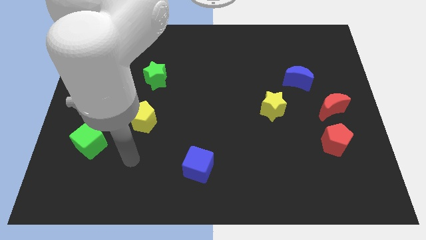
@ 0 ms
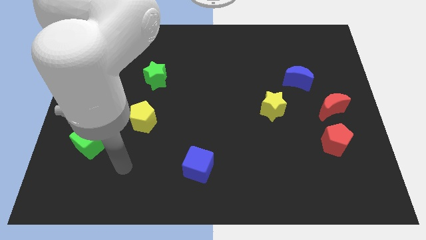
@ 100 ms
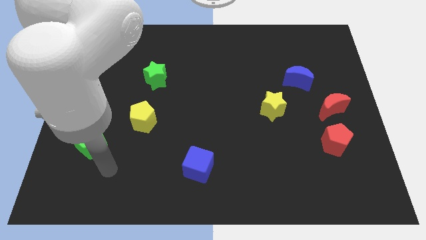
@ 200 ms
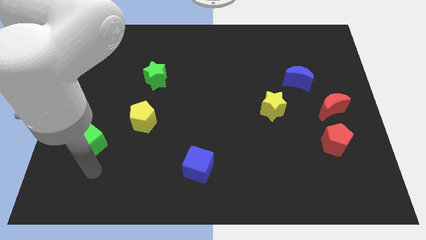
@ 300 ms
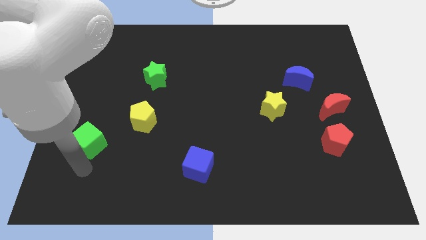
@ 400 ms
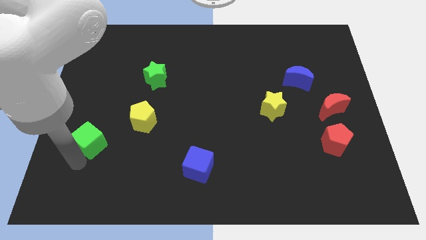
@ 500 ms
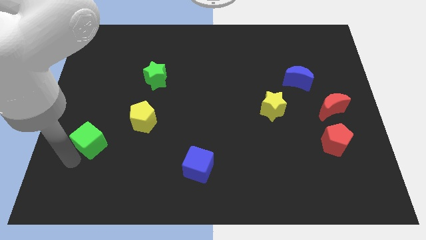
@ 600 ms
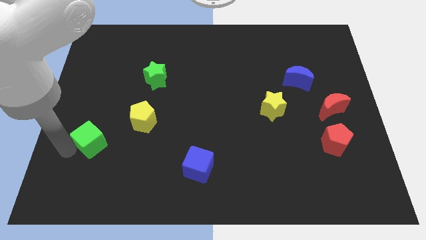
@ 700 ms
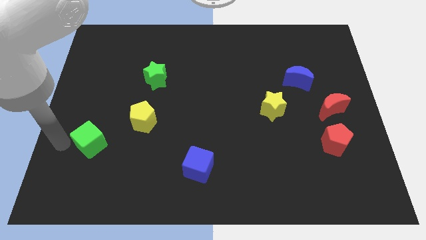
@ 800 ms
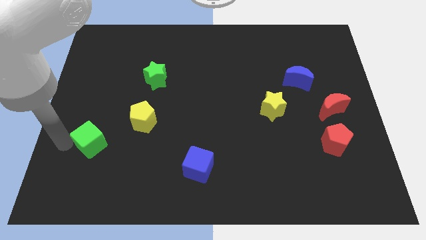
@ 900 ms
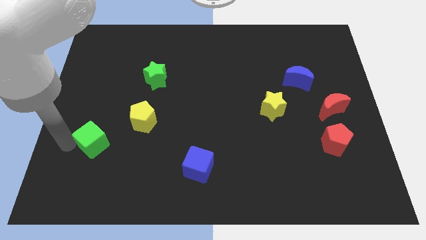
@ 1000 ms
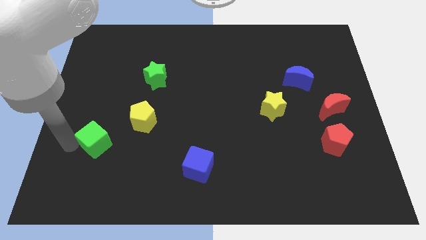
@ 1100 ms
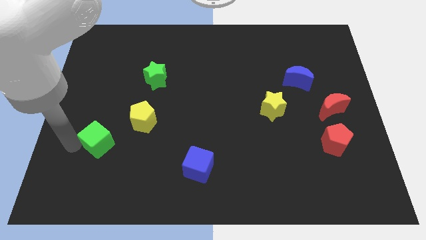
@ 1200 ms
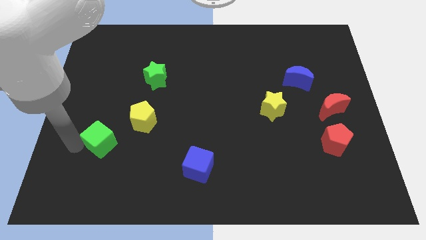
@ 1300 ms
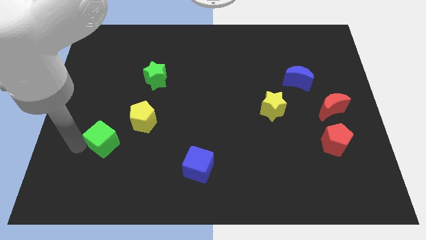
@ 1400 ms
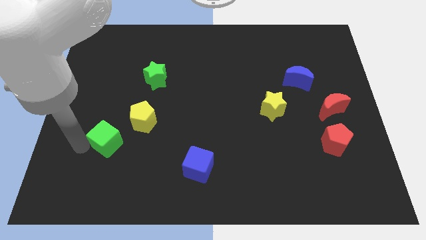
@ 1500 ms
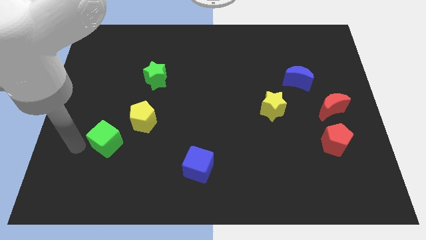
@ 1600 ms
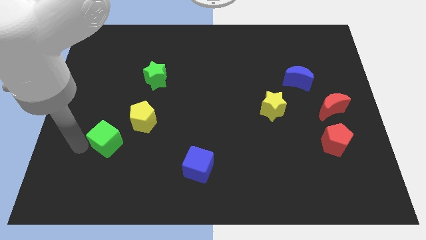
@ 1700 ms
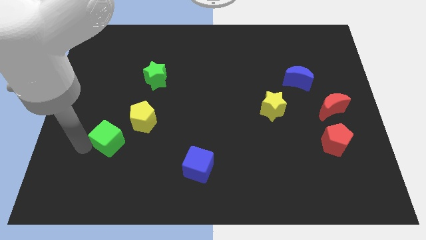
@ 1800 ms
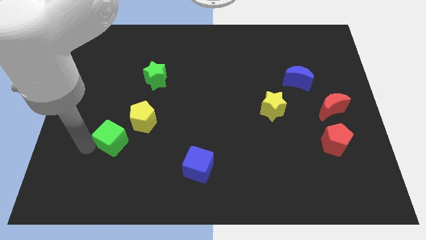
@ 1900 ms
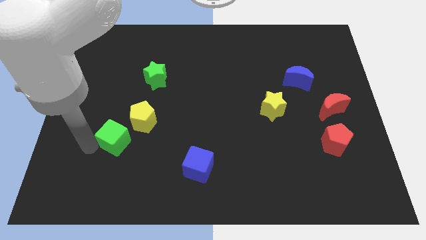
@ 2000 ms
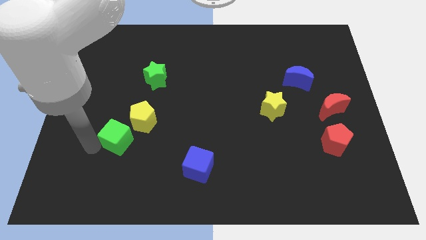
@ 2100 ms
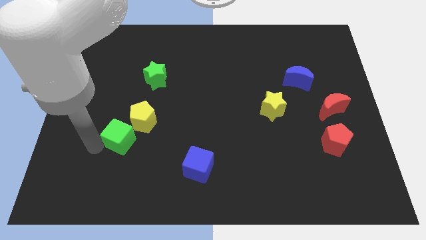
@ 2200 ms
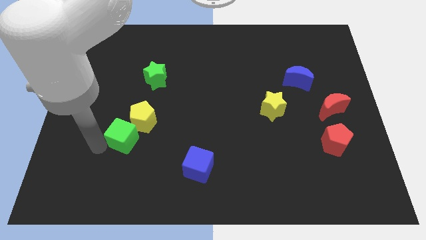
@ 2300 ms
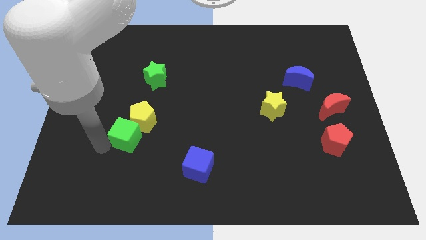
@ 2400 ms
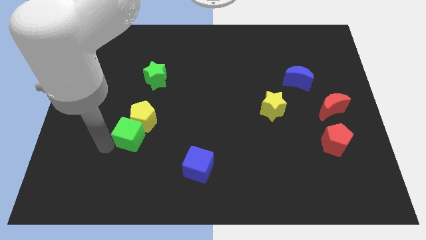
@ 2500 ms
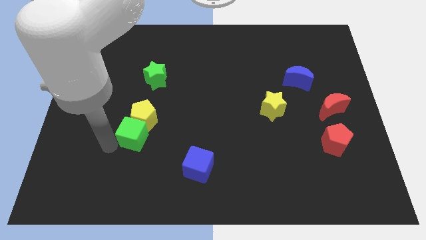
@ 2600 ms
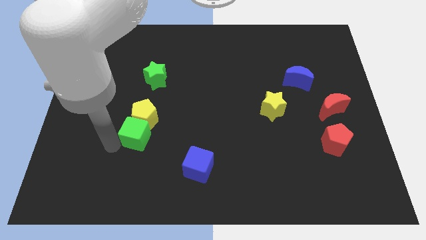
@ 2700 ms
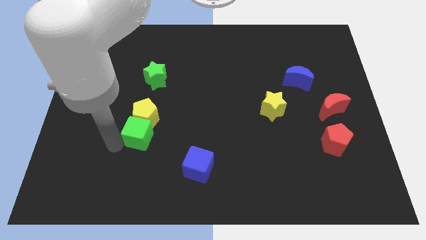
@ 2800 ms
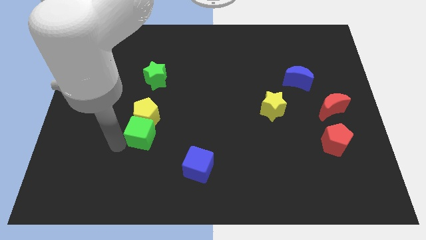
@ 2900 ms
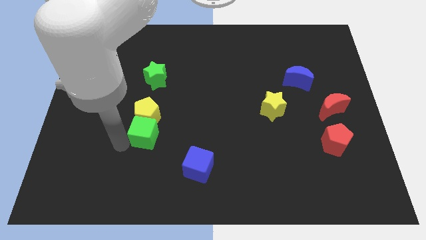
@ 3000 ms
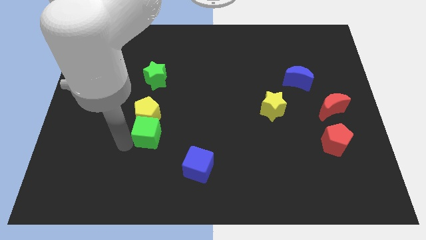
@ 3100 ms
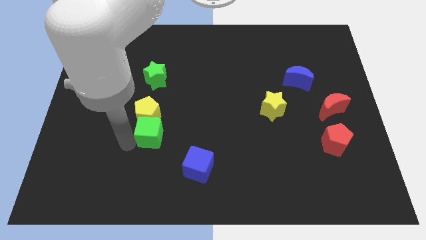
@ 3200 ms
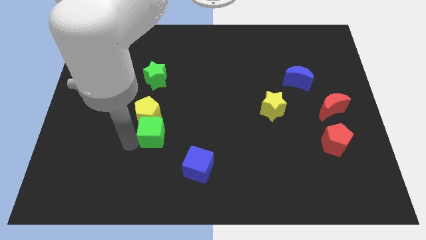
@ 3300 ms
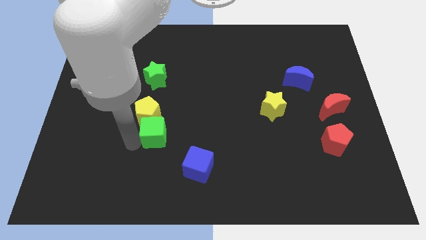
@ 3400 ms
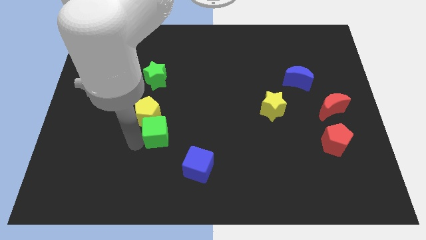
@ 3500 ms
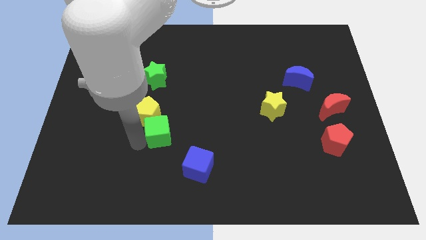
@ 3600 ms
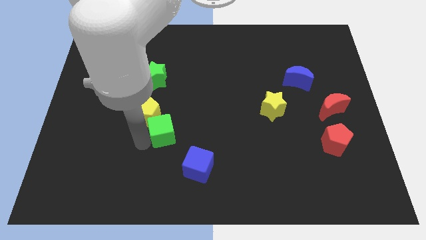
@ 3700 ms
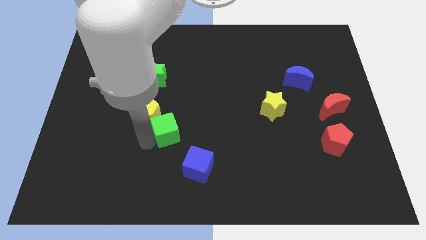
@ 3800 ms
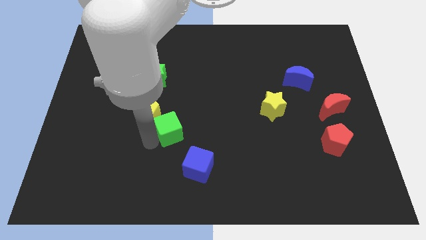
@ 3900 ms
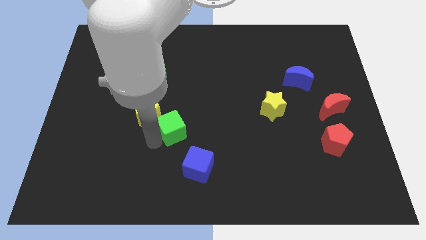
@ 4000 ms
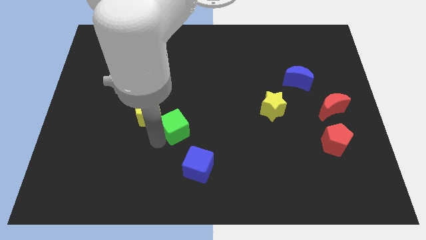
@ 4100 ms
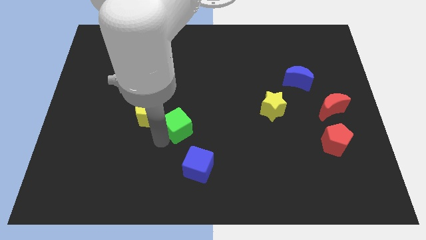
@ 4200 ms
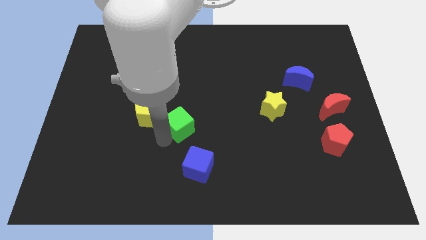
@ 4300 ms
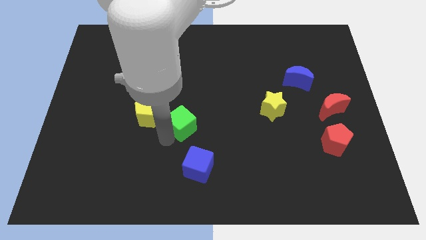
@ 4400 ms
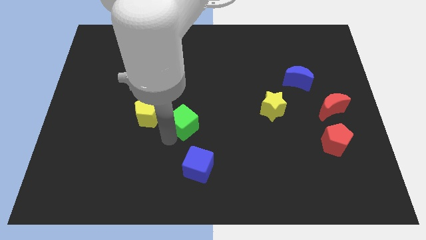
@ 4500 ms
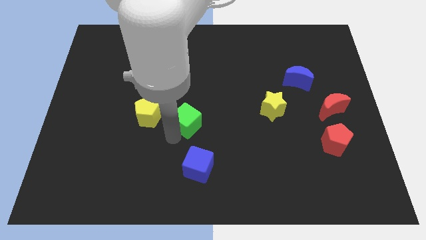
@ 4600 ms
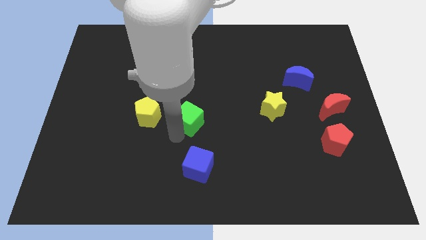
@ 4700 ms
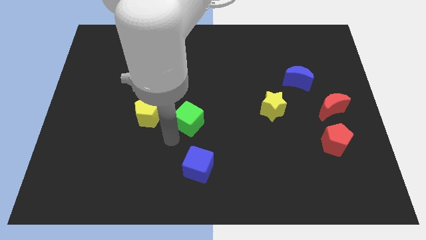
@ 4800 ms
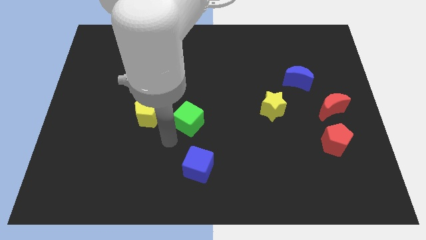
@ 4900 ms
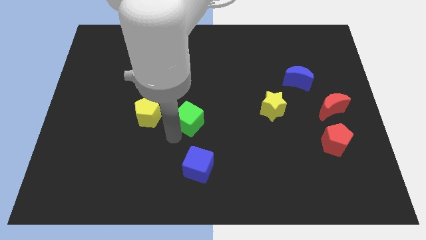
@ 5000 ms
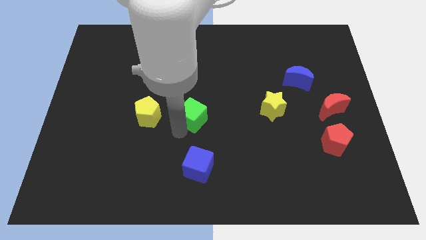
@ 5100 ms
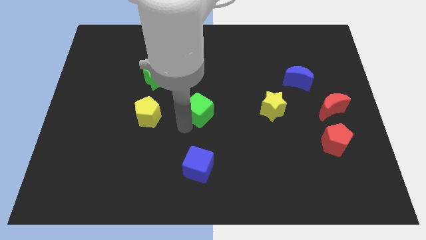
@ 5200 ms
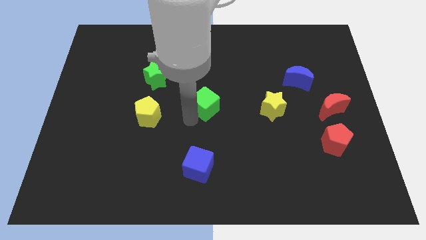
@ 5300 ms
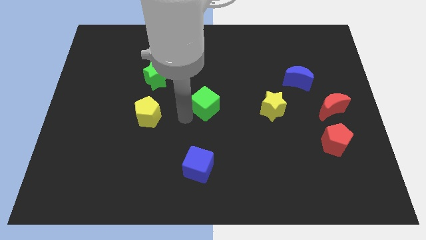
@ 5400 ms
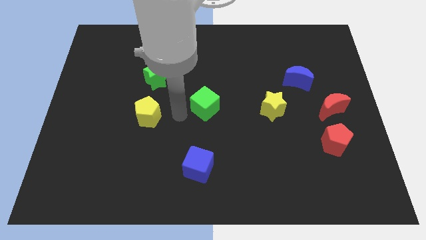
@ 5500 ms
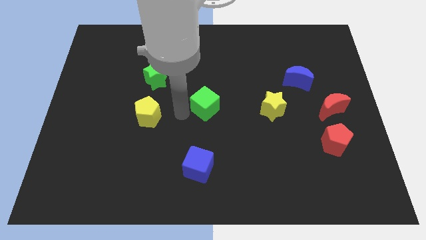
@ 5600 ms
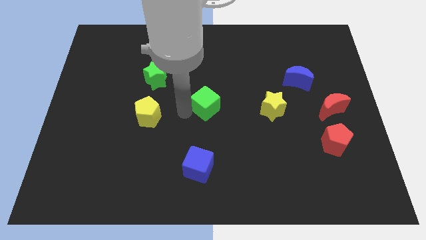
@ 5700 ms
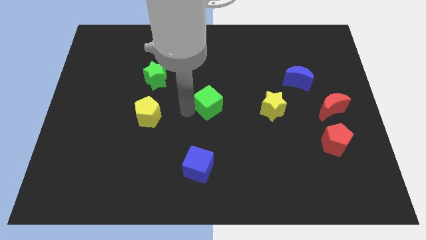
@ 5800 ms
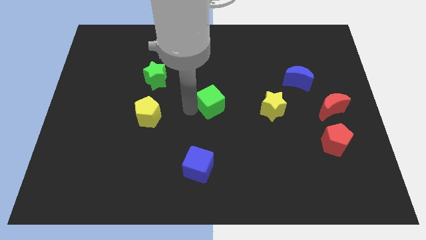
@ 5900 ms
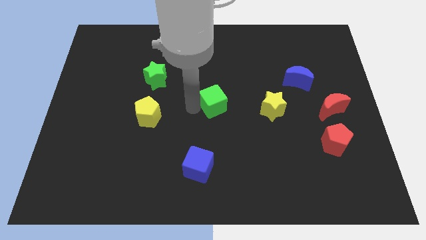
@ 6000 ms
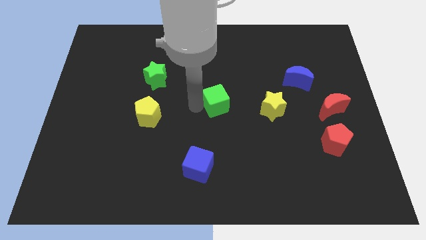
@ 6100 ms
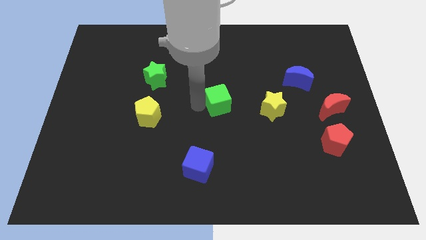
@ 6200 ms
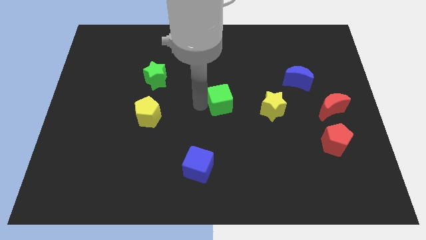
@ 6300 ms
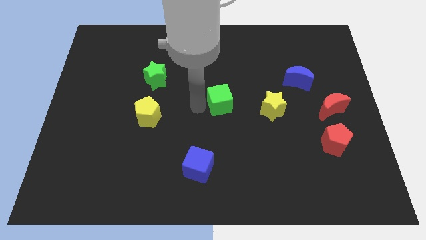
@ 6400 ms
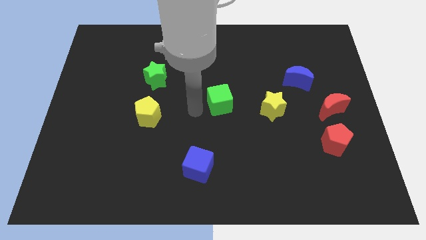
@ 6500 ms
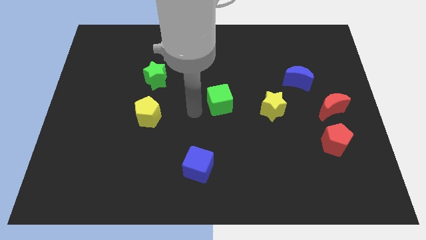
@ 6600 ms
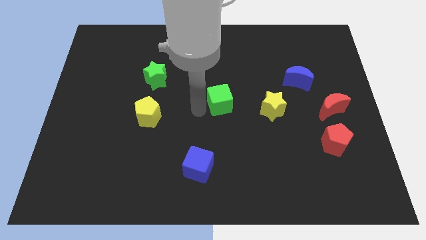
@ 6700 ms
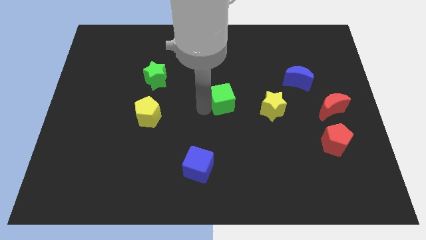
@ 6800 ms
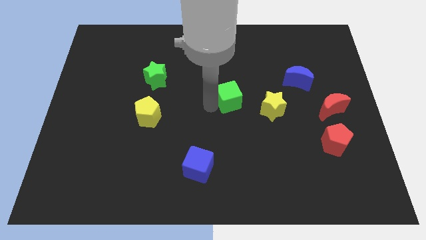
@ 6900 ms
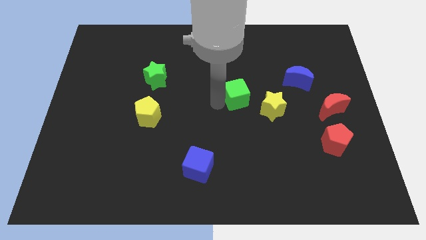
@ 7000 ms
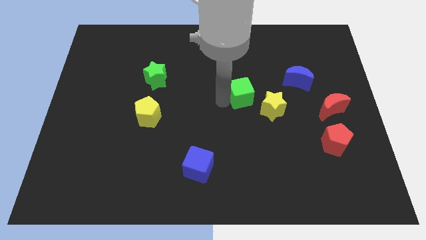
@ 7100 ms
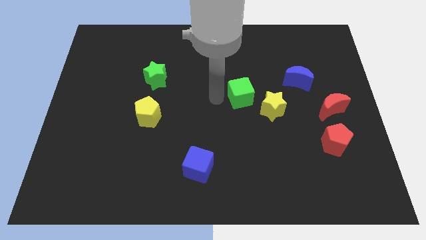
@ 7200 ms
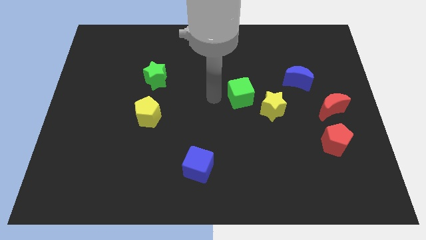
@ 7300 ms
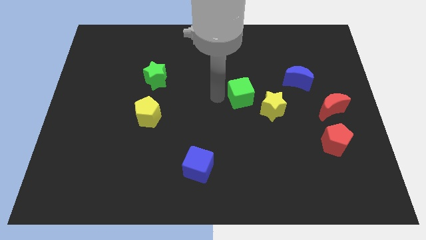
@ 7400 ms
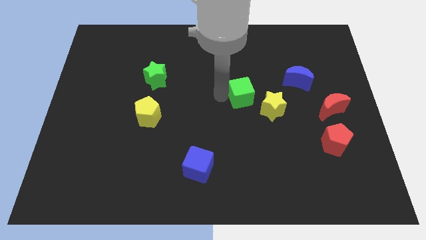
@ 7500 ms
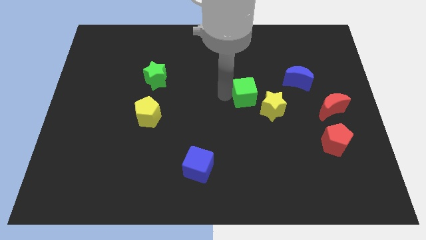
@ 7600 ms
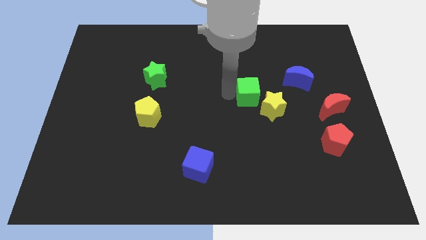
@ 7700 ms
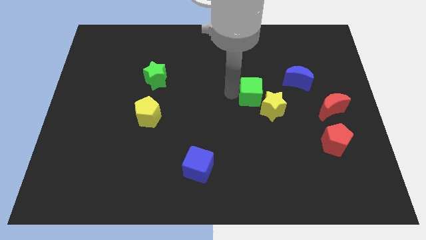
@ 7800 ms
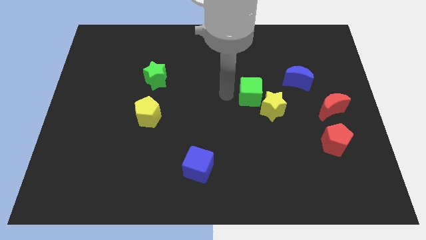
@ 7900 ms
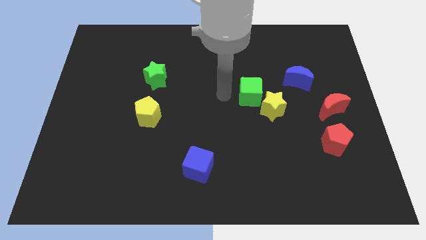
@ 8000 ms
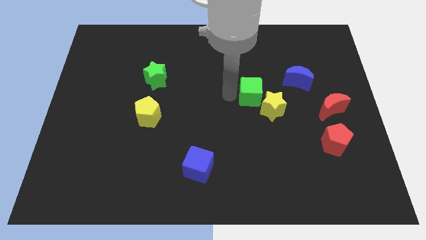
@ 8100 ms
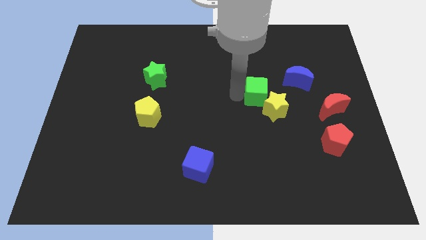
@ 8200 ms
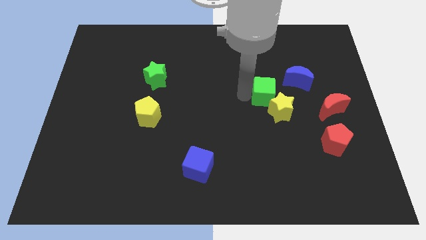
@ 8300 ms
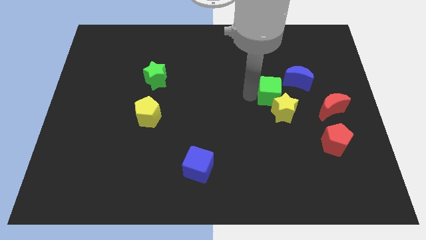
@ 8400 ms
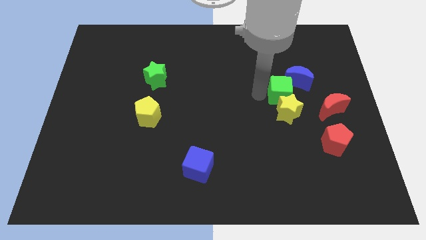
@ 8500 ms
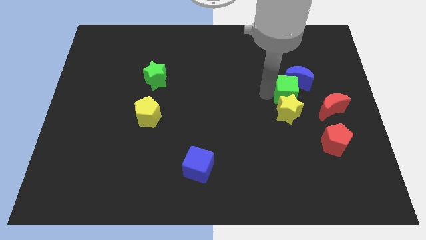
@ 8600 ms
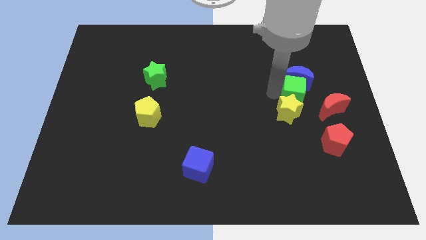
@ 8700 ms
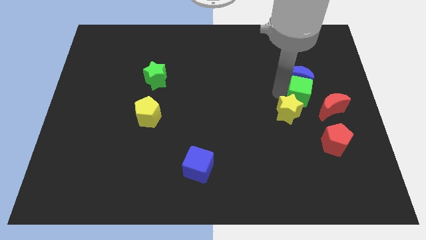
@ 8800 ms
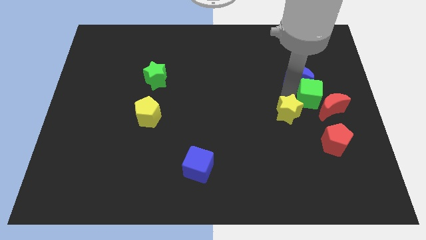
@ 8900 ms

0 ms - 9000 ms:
slide the green cube to the top of the red moon
